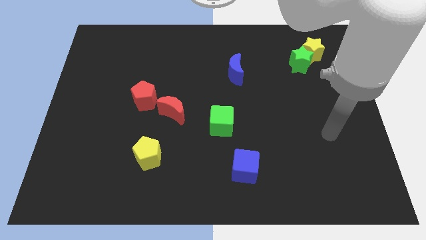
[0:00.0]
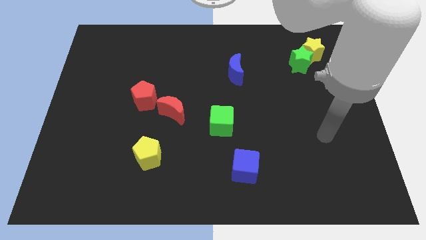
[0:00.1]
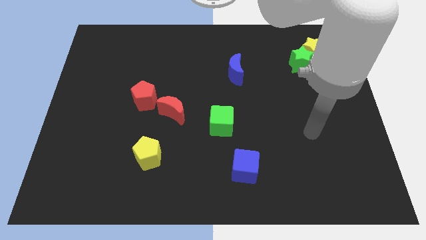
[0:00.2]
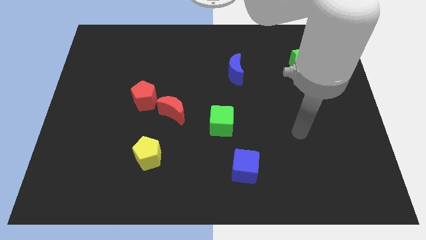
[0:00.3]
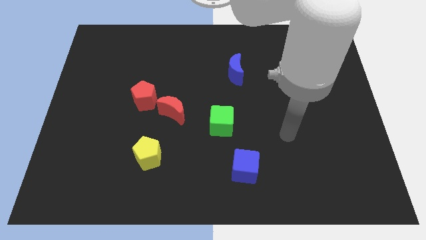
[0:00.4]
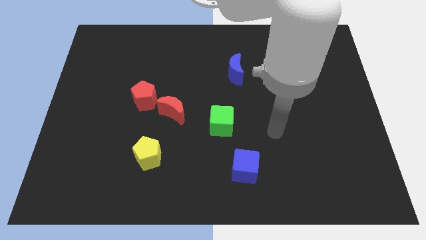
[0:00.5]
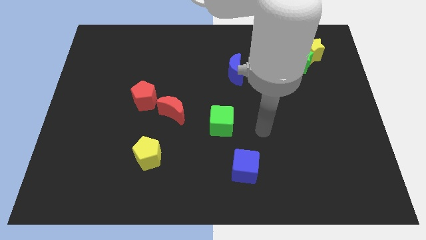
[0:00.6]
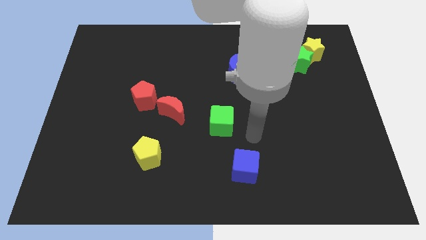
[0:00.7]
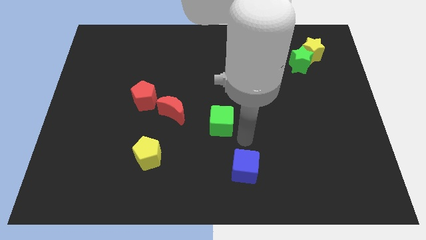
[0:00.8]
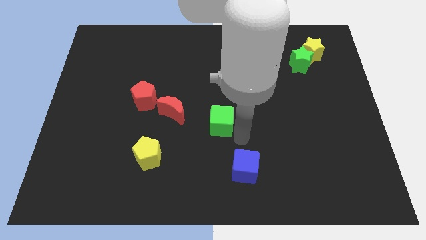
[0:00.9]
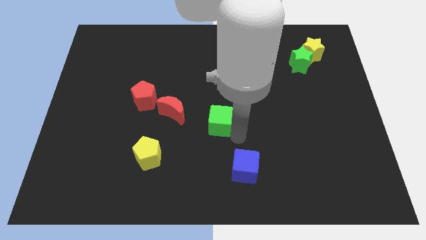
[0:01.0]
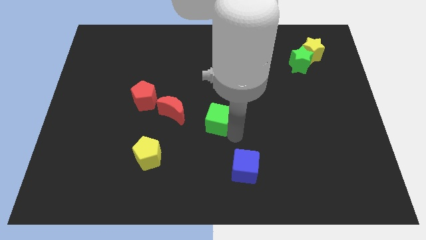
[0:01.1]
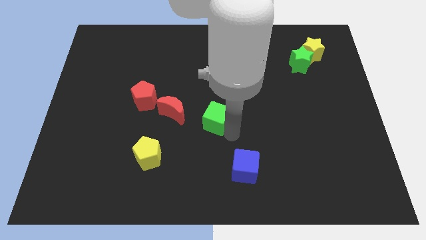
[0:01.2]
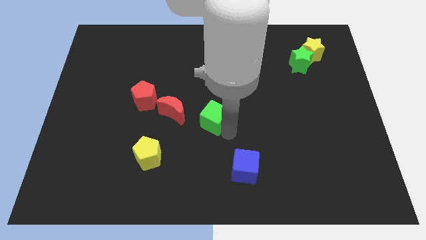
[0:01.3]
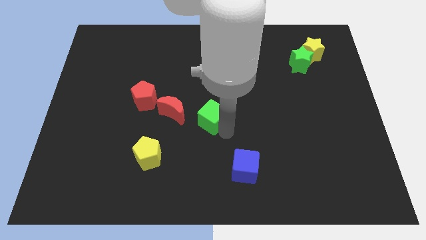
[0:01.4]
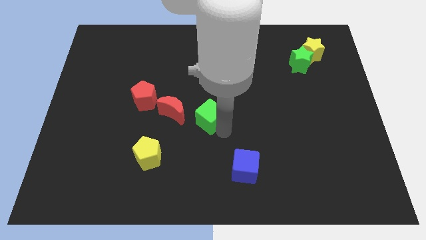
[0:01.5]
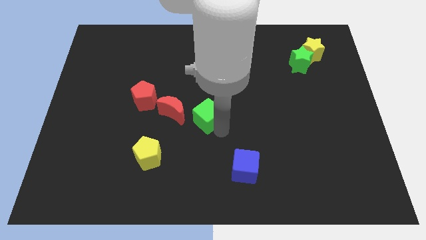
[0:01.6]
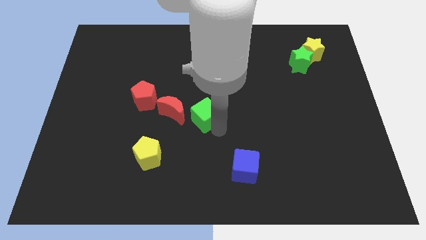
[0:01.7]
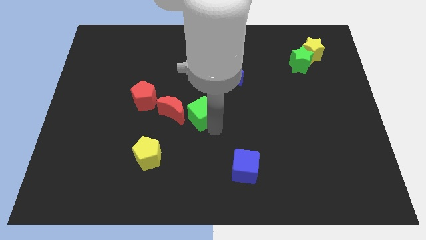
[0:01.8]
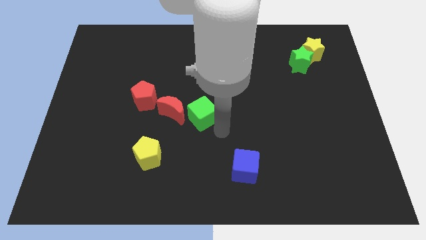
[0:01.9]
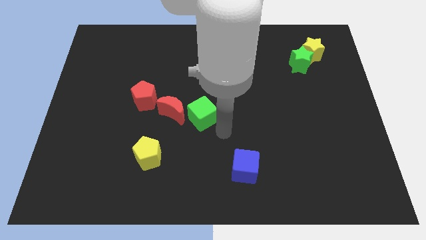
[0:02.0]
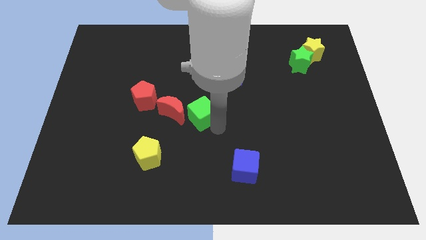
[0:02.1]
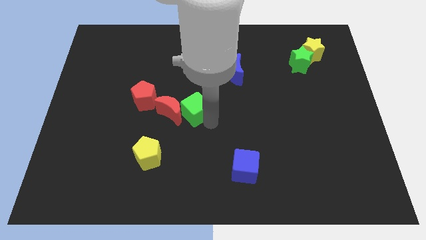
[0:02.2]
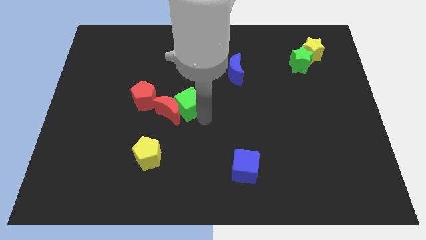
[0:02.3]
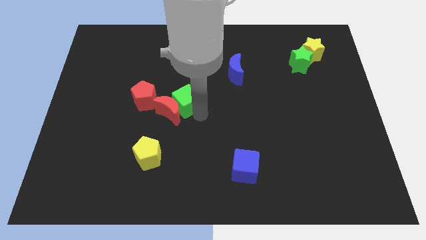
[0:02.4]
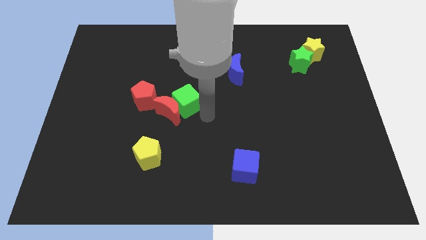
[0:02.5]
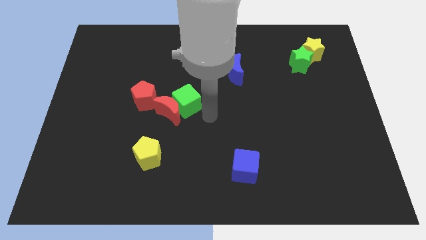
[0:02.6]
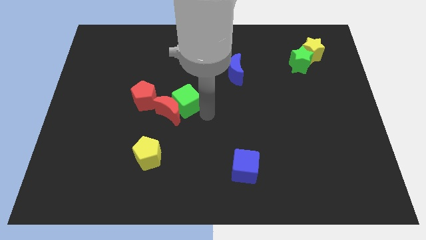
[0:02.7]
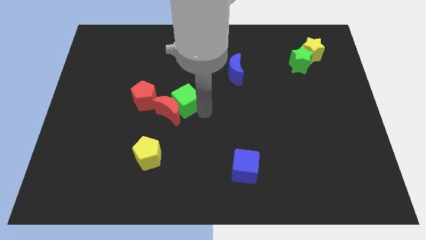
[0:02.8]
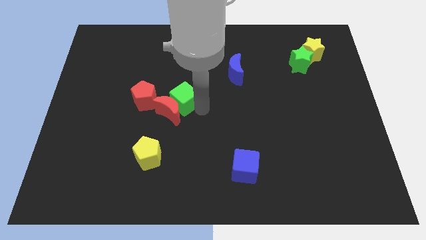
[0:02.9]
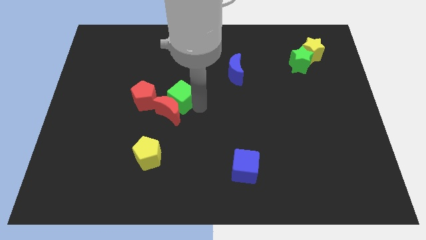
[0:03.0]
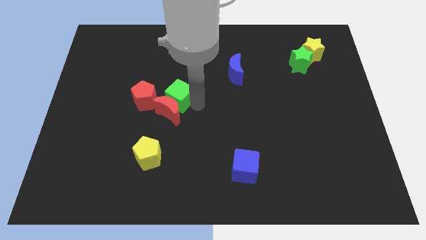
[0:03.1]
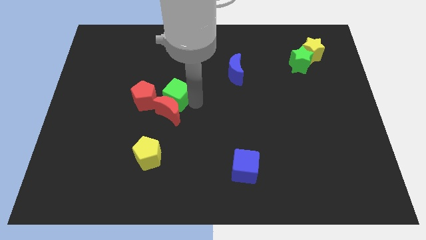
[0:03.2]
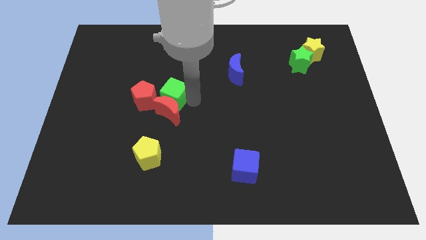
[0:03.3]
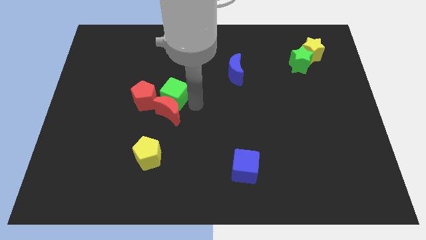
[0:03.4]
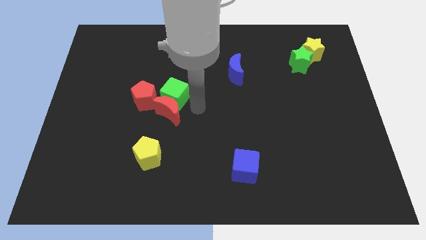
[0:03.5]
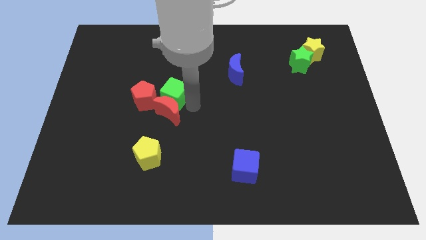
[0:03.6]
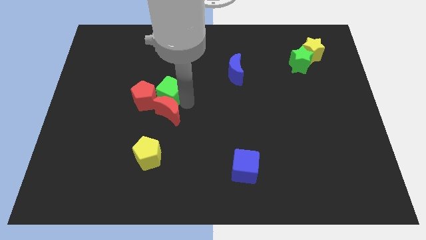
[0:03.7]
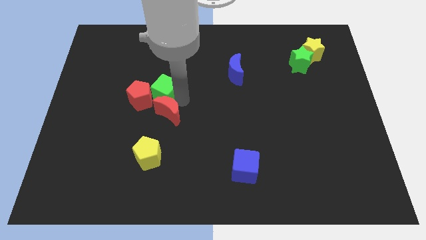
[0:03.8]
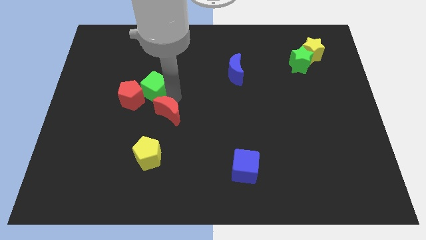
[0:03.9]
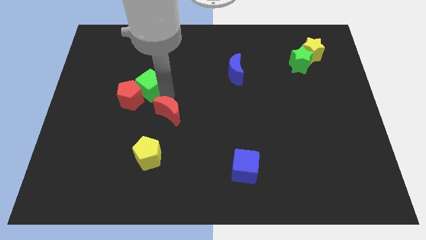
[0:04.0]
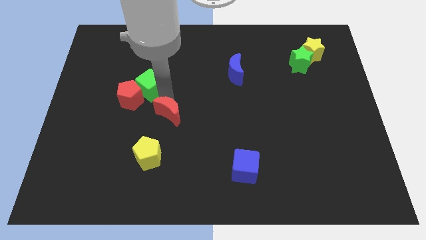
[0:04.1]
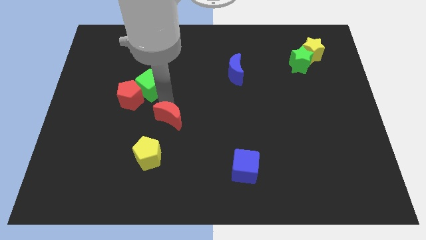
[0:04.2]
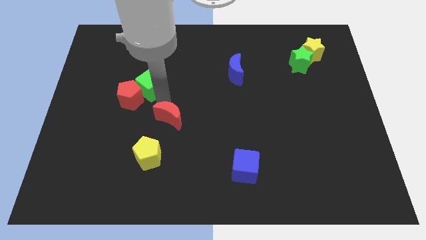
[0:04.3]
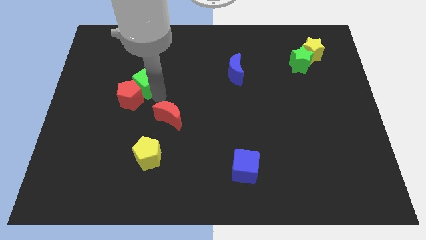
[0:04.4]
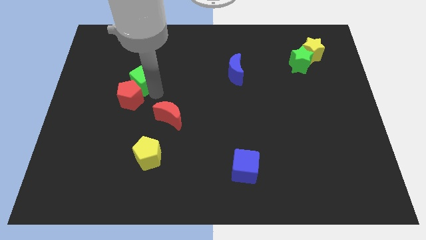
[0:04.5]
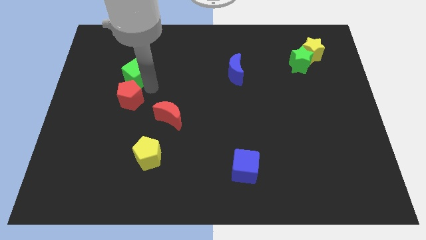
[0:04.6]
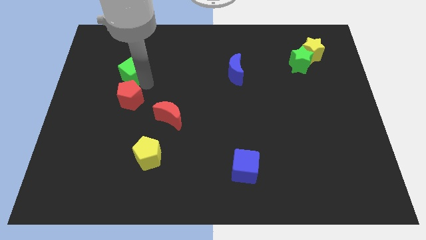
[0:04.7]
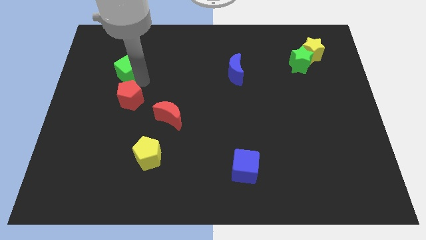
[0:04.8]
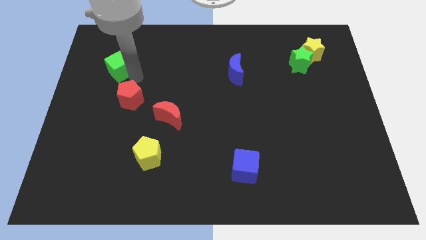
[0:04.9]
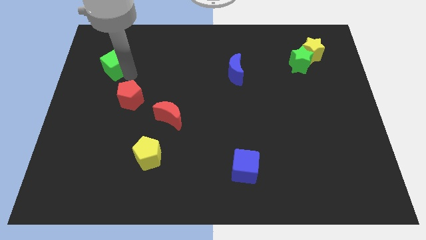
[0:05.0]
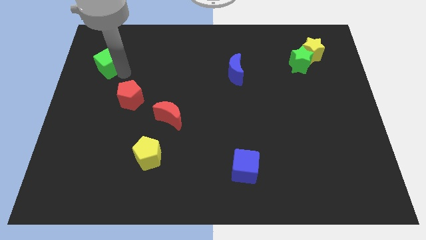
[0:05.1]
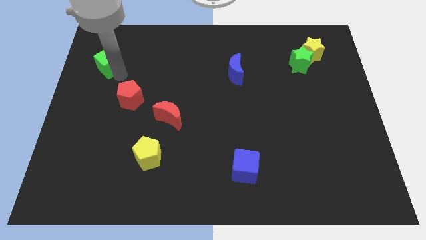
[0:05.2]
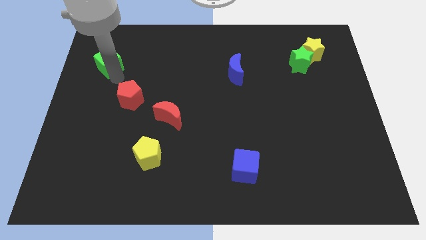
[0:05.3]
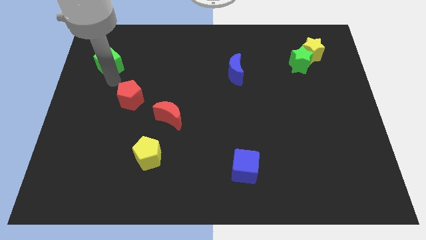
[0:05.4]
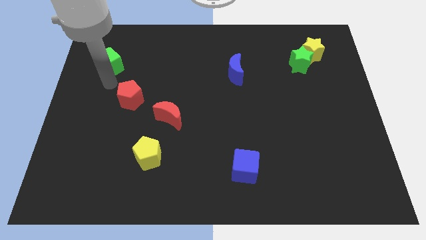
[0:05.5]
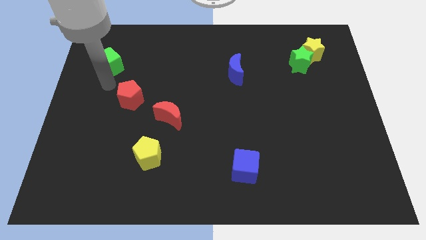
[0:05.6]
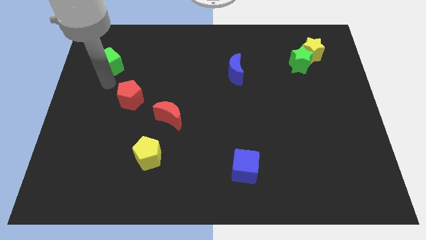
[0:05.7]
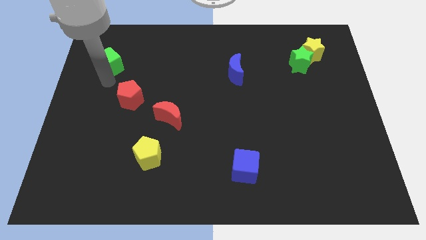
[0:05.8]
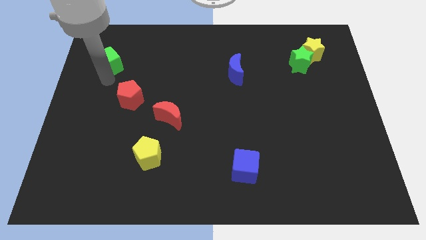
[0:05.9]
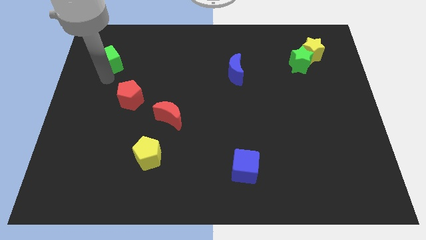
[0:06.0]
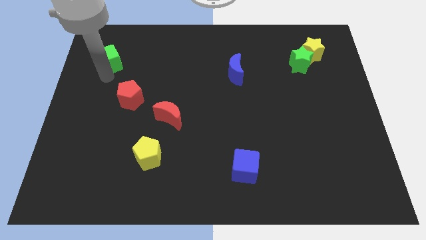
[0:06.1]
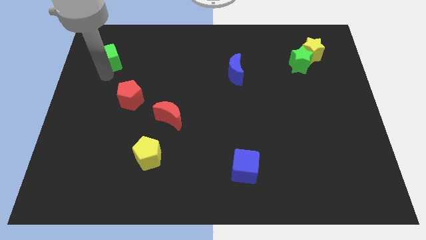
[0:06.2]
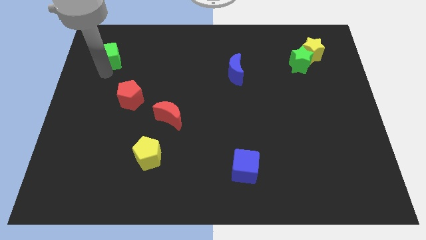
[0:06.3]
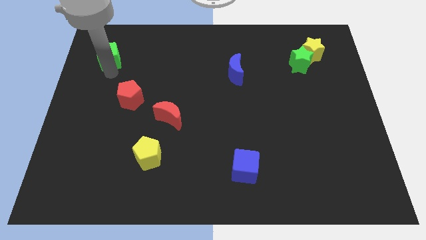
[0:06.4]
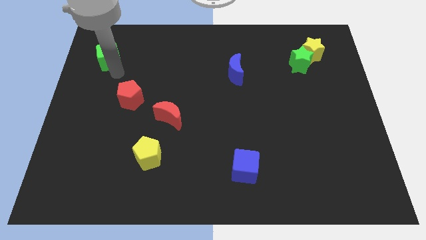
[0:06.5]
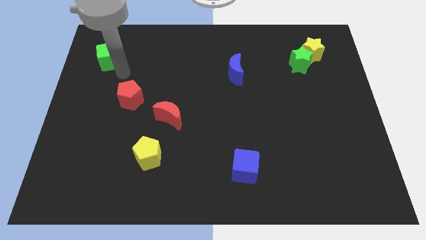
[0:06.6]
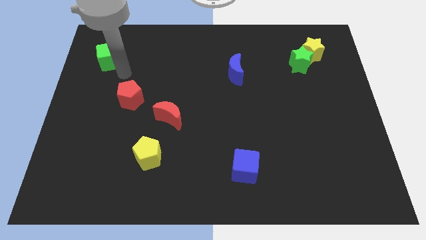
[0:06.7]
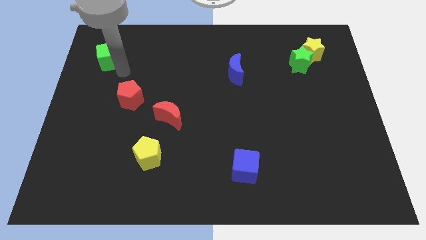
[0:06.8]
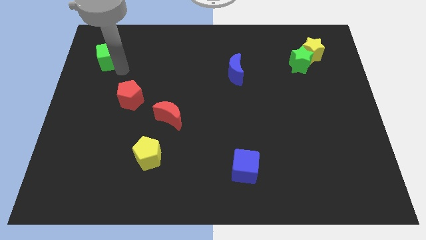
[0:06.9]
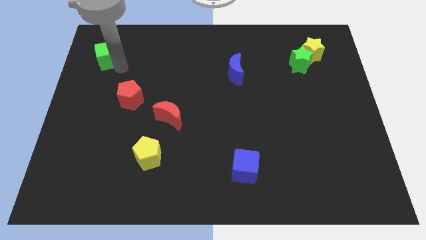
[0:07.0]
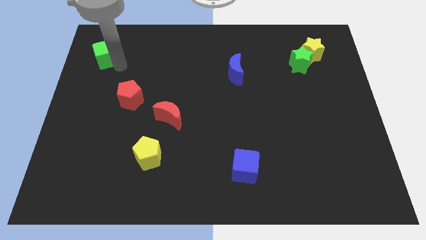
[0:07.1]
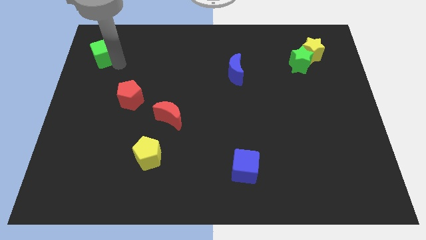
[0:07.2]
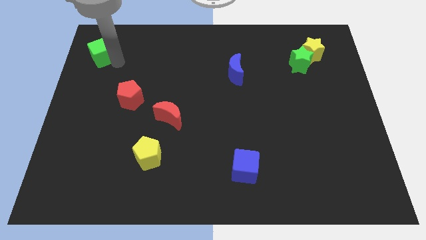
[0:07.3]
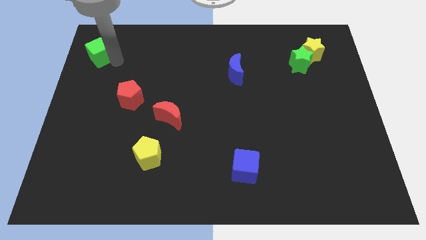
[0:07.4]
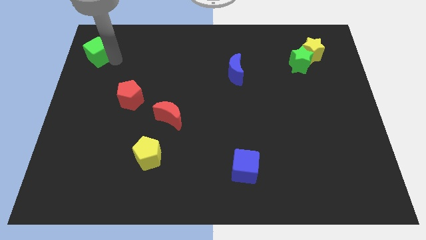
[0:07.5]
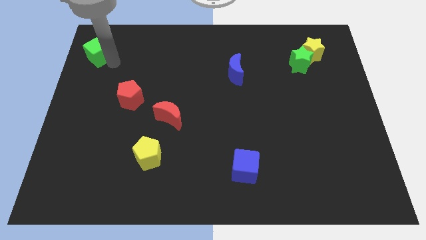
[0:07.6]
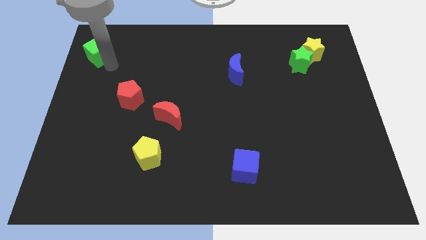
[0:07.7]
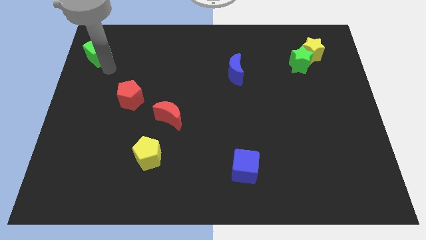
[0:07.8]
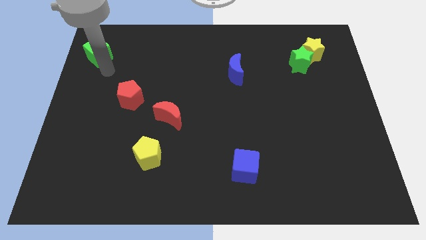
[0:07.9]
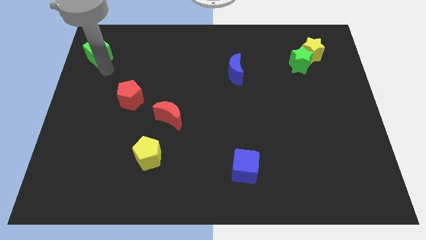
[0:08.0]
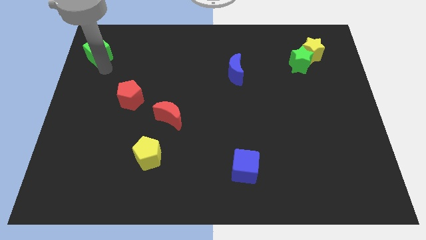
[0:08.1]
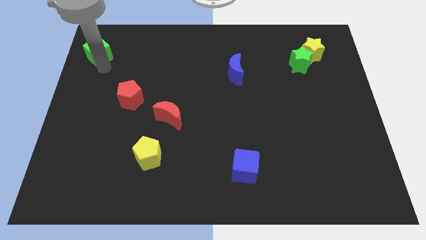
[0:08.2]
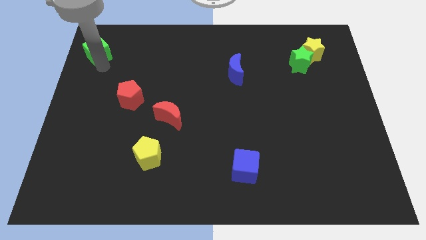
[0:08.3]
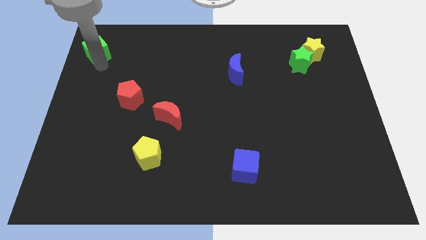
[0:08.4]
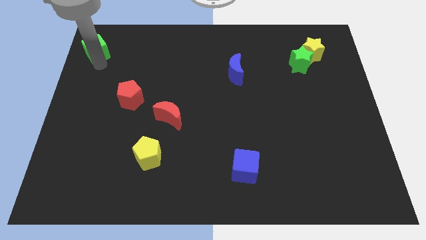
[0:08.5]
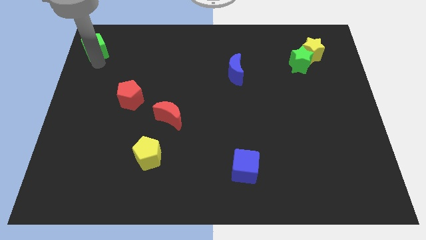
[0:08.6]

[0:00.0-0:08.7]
move the green cube to the top left of the board
